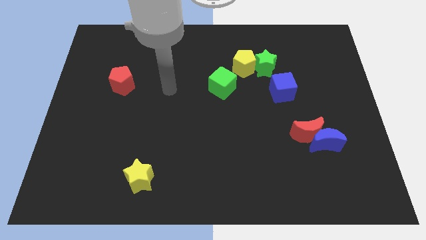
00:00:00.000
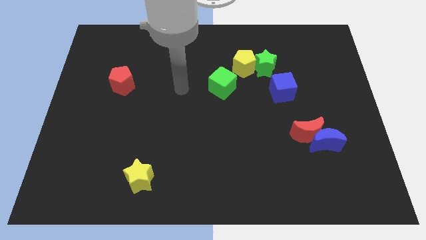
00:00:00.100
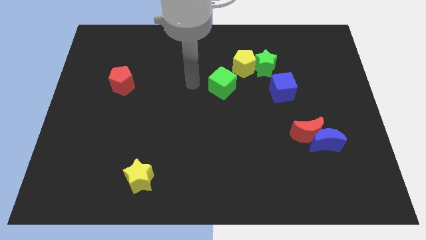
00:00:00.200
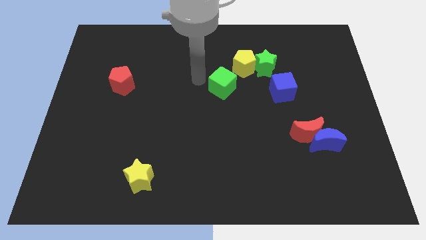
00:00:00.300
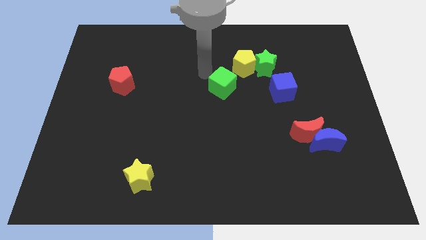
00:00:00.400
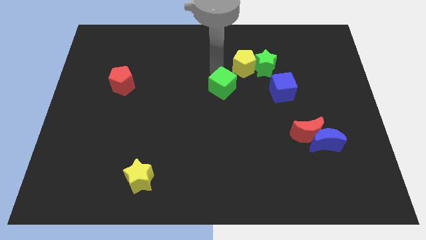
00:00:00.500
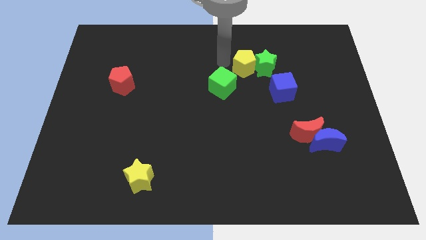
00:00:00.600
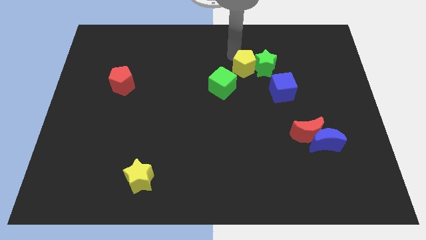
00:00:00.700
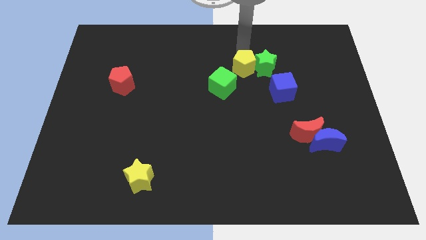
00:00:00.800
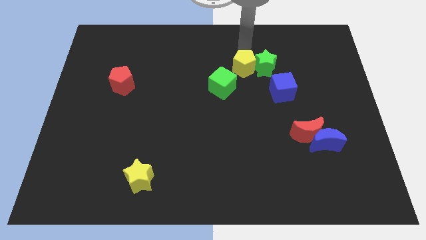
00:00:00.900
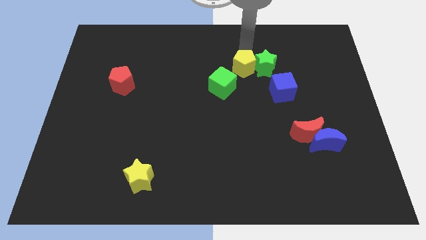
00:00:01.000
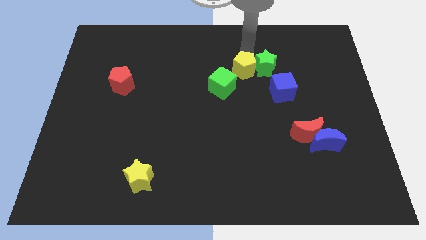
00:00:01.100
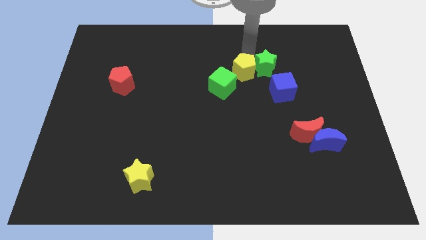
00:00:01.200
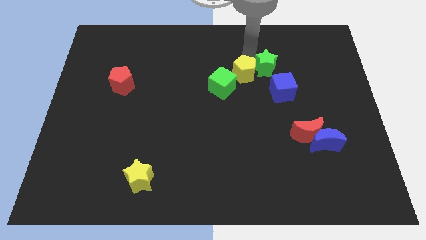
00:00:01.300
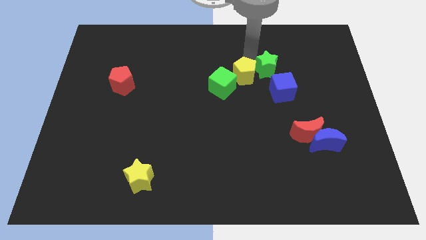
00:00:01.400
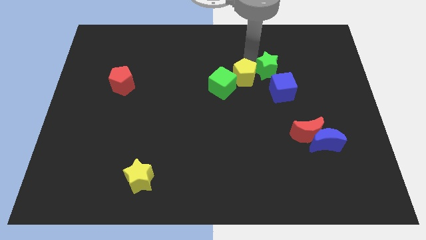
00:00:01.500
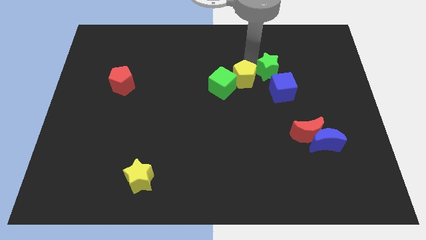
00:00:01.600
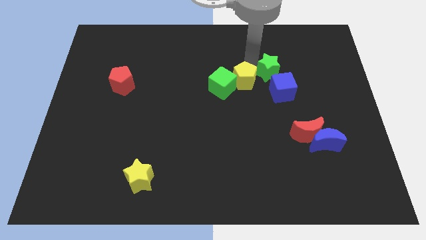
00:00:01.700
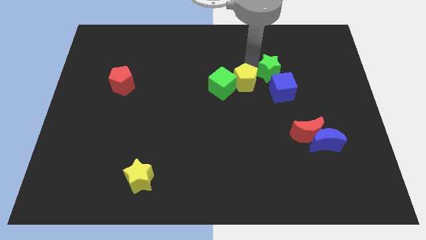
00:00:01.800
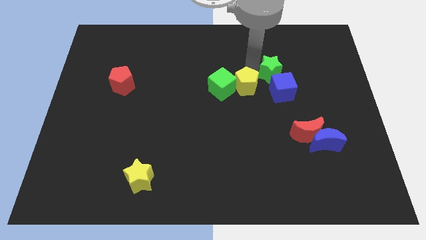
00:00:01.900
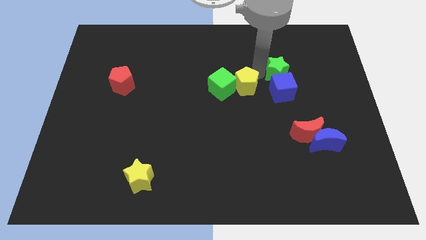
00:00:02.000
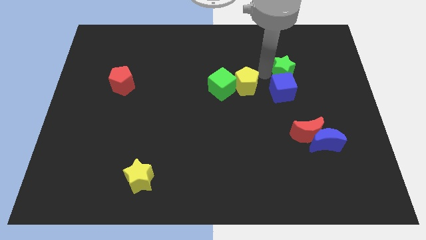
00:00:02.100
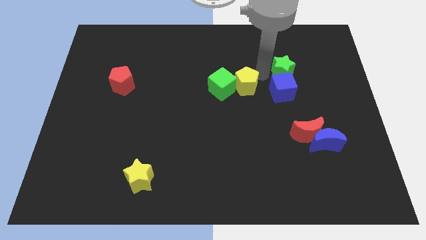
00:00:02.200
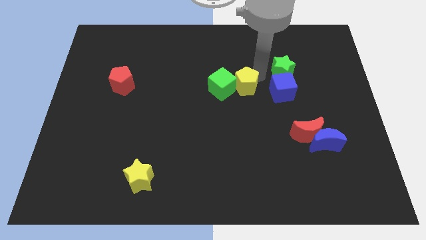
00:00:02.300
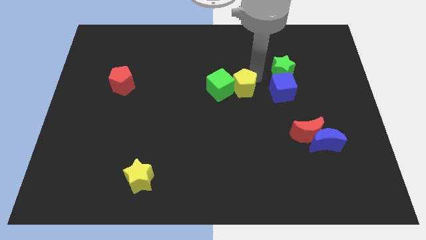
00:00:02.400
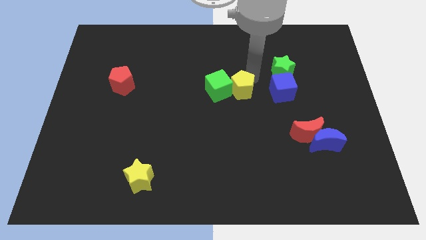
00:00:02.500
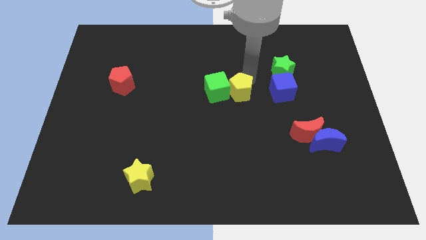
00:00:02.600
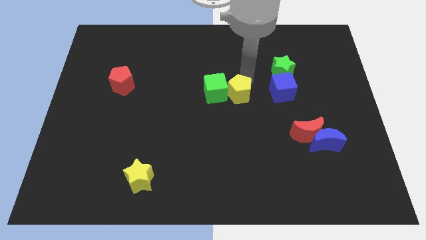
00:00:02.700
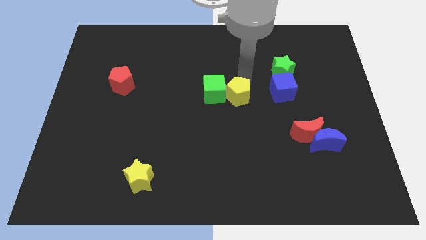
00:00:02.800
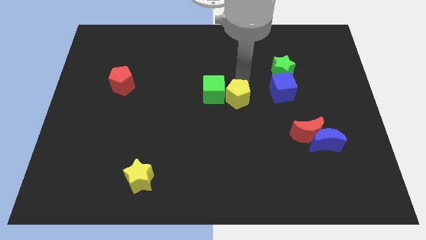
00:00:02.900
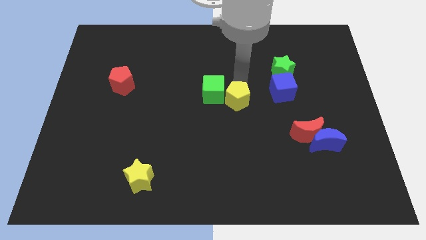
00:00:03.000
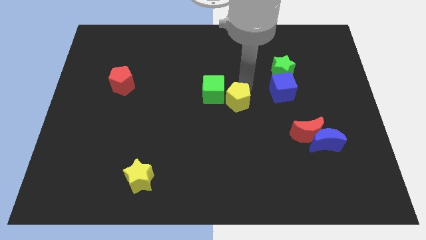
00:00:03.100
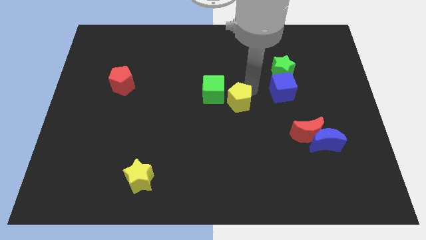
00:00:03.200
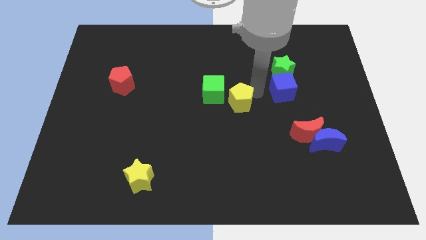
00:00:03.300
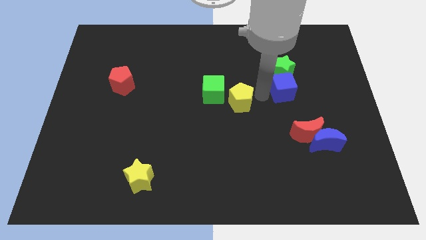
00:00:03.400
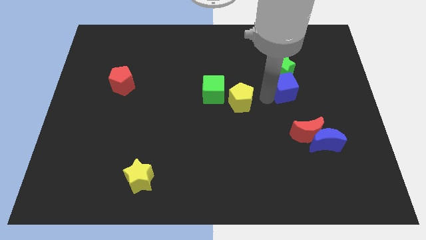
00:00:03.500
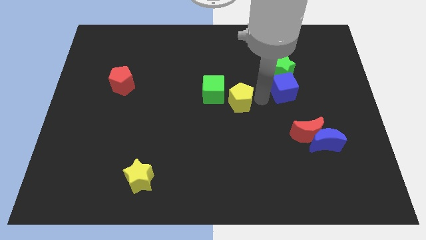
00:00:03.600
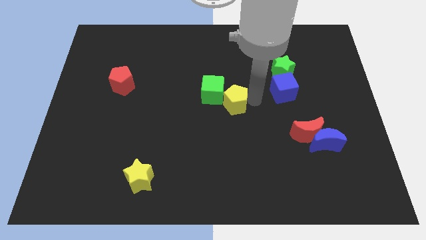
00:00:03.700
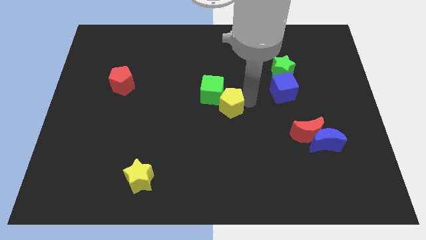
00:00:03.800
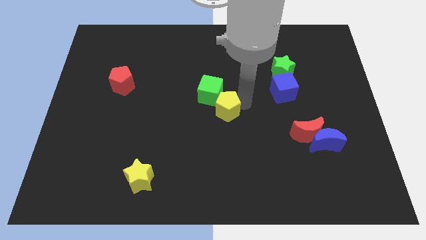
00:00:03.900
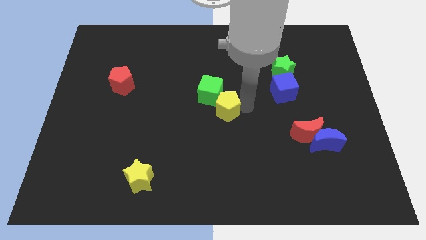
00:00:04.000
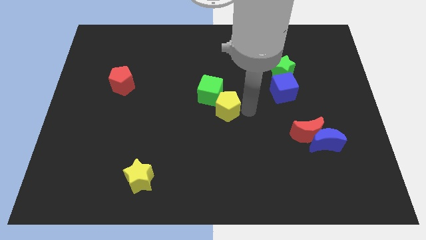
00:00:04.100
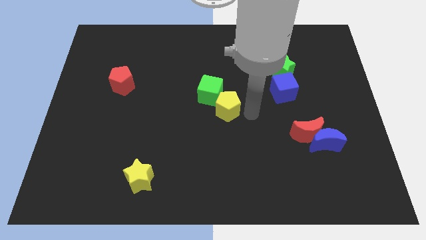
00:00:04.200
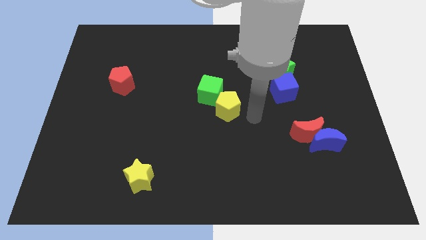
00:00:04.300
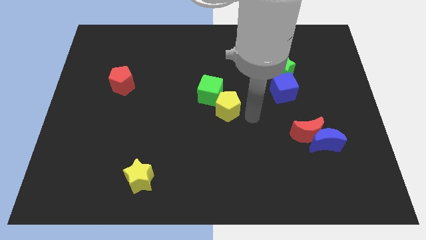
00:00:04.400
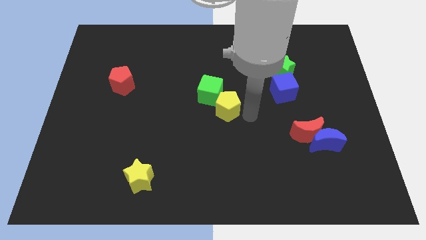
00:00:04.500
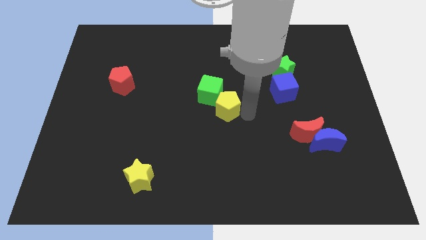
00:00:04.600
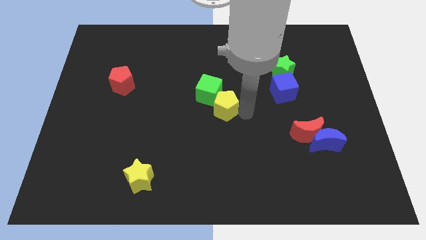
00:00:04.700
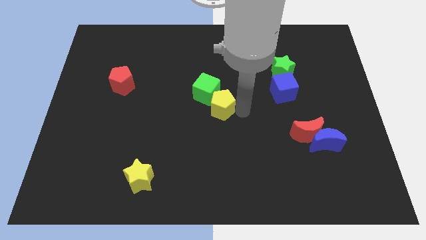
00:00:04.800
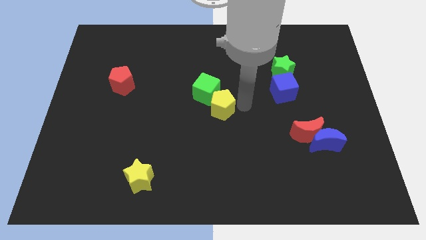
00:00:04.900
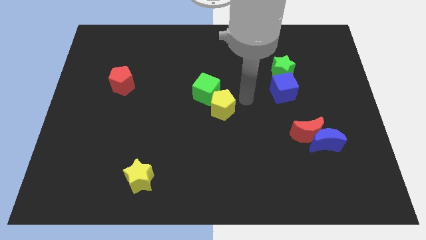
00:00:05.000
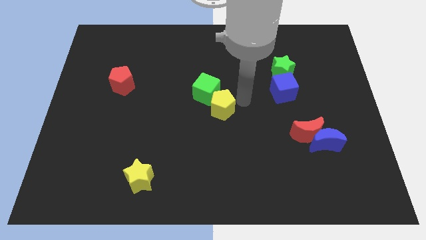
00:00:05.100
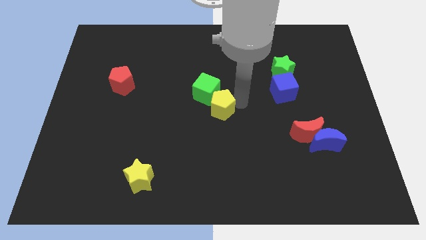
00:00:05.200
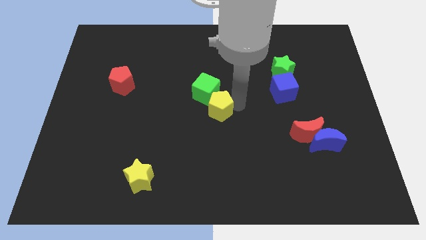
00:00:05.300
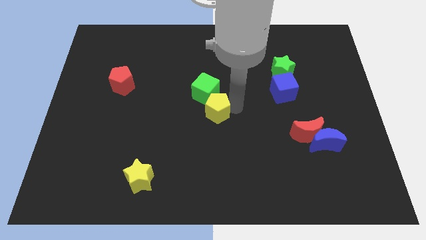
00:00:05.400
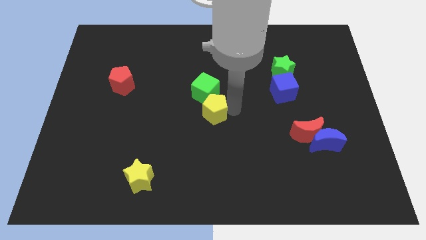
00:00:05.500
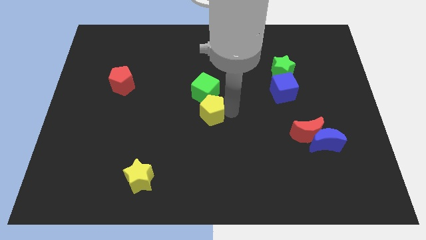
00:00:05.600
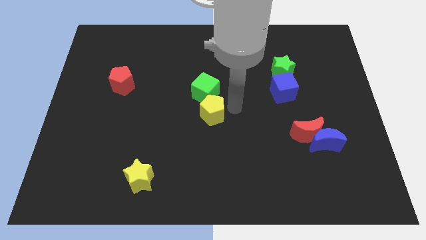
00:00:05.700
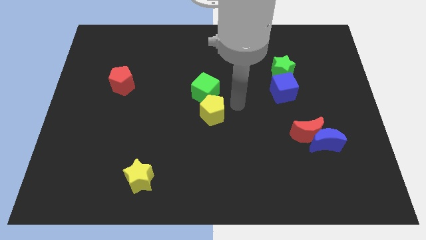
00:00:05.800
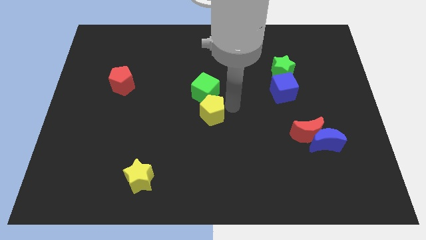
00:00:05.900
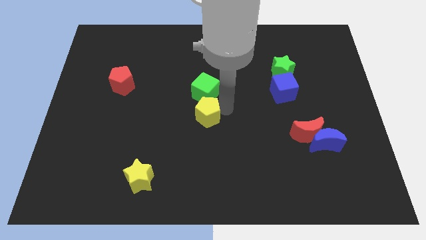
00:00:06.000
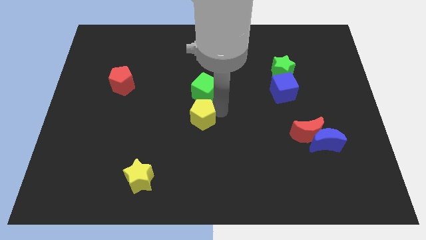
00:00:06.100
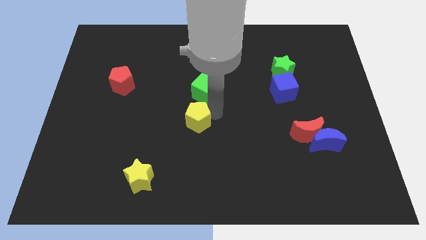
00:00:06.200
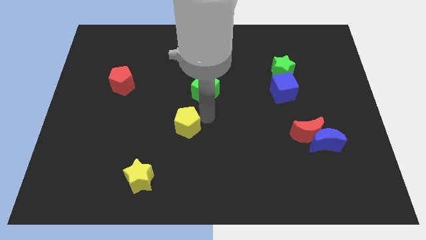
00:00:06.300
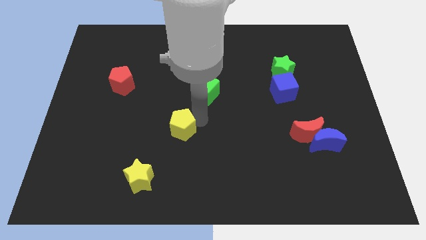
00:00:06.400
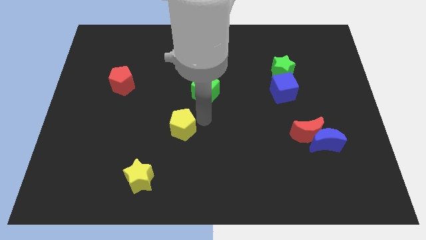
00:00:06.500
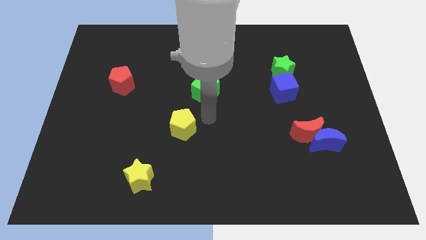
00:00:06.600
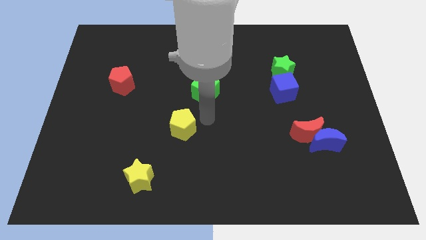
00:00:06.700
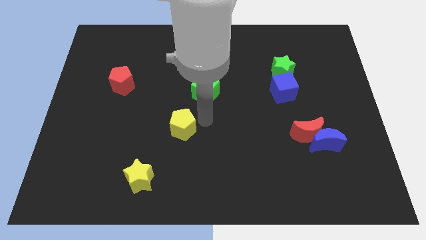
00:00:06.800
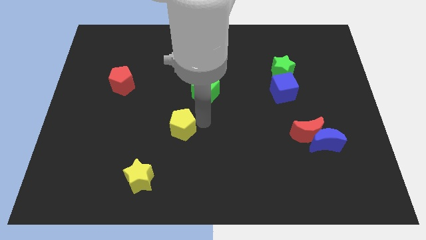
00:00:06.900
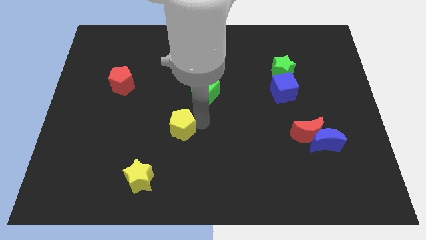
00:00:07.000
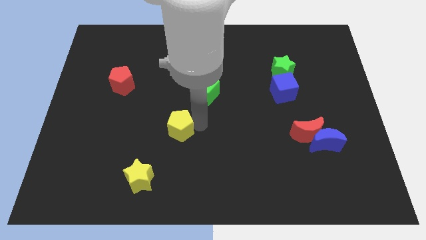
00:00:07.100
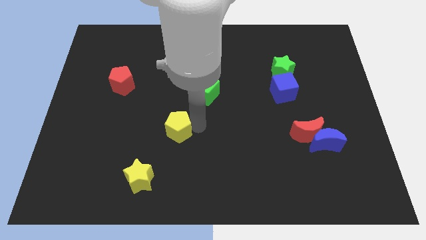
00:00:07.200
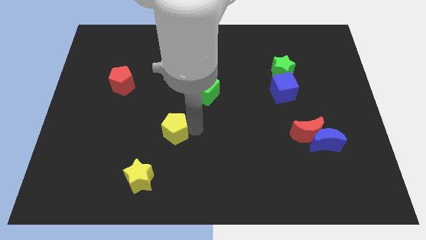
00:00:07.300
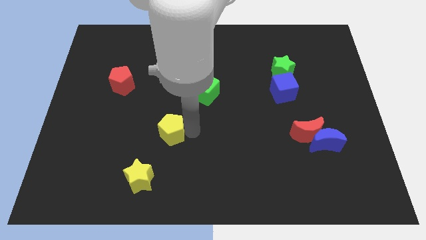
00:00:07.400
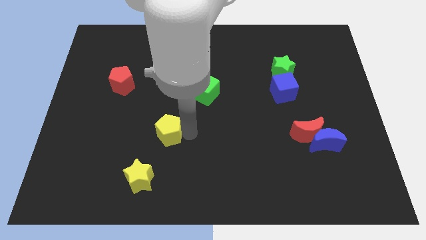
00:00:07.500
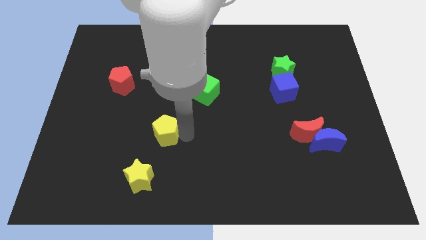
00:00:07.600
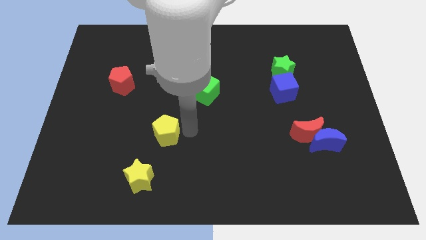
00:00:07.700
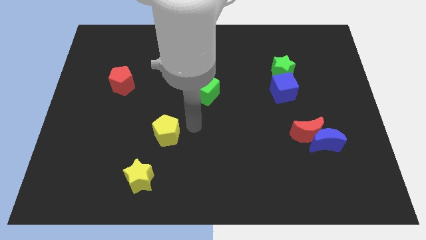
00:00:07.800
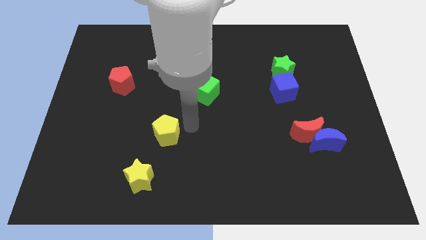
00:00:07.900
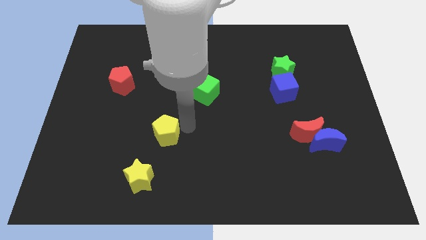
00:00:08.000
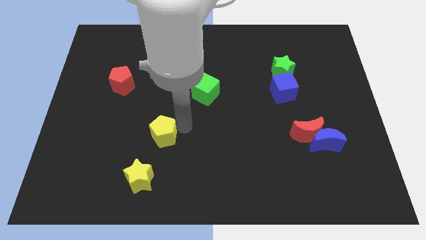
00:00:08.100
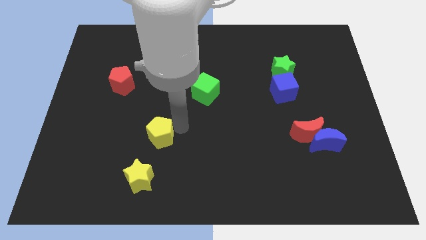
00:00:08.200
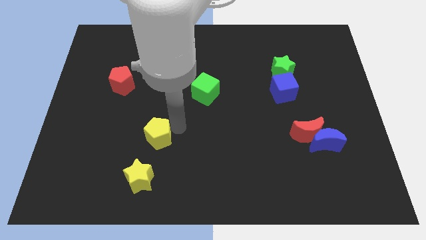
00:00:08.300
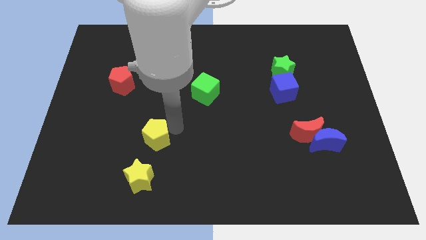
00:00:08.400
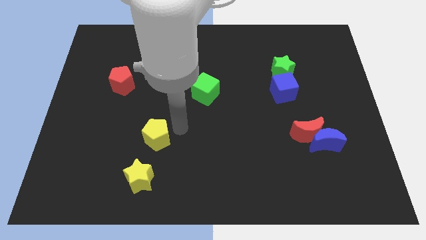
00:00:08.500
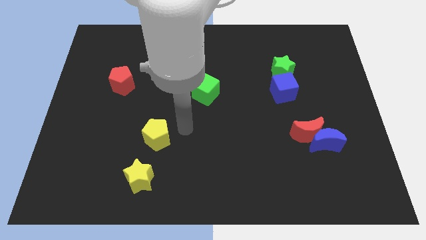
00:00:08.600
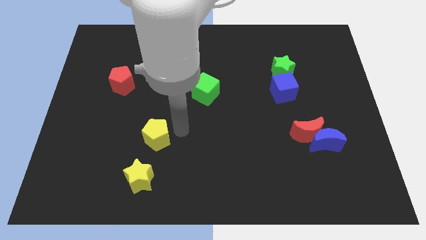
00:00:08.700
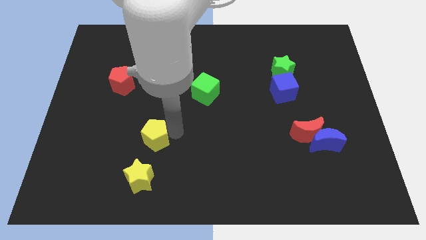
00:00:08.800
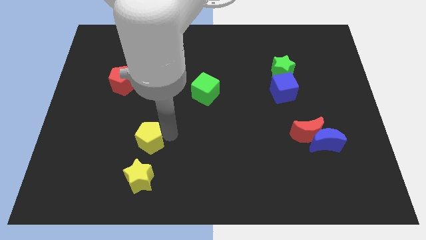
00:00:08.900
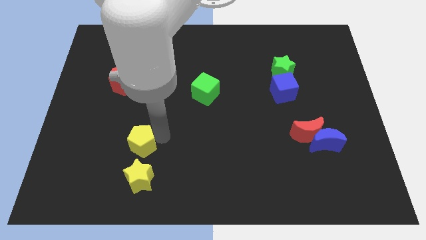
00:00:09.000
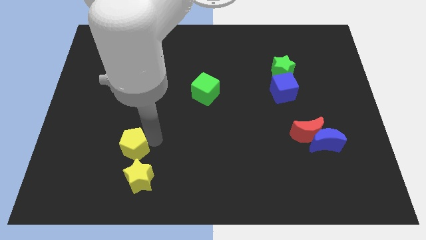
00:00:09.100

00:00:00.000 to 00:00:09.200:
move the yellow pentagon to the top left side of the yellow star
